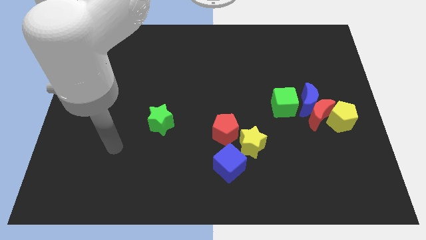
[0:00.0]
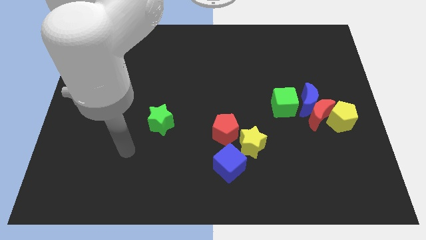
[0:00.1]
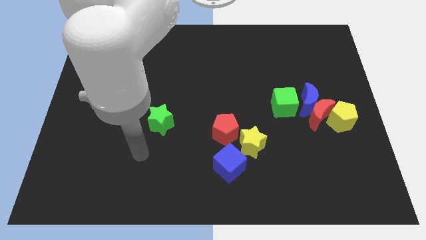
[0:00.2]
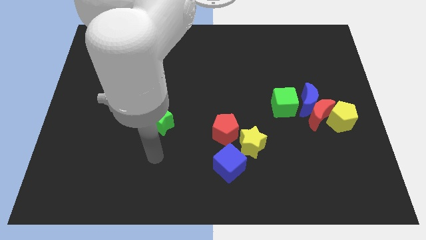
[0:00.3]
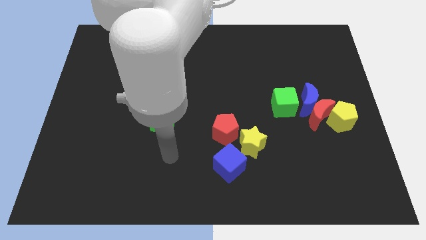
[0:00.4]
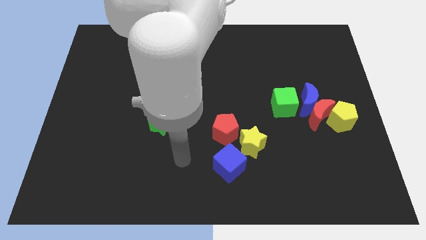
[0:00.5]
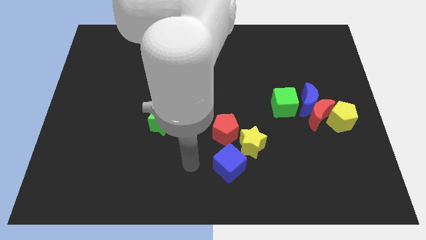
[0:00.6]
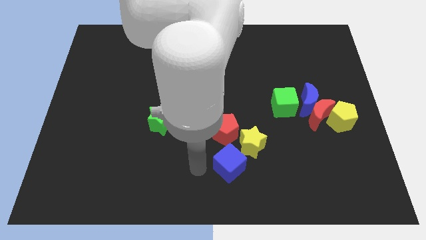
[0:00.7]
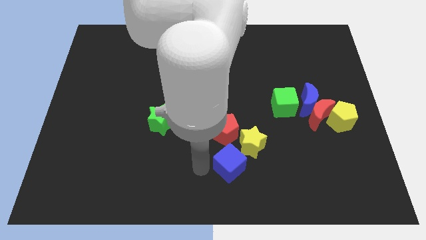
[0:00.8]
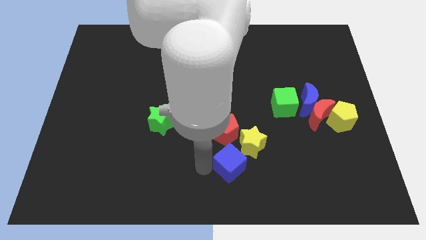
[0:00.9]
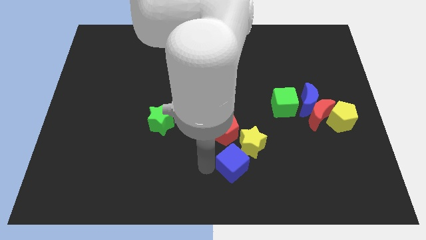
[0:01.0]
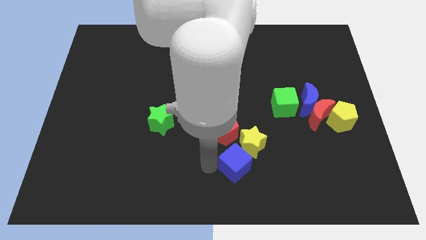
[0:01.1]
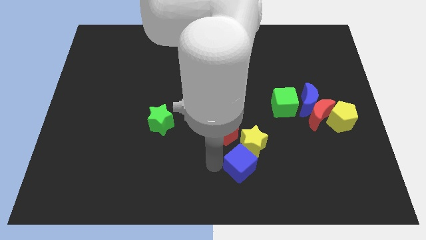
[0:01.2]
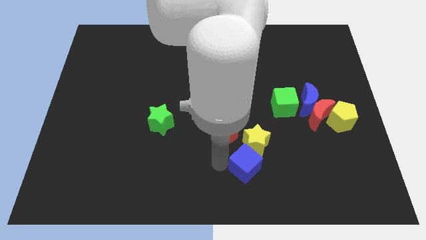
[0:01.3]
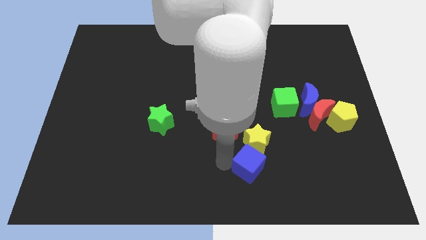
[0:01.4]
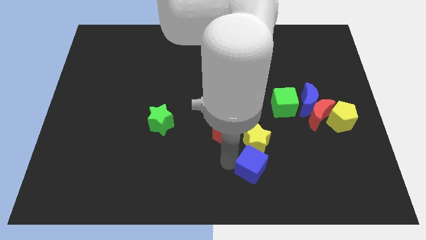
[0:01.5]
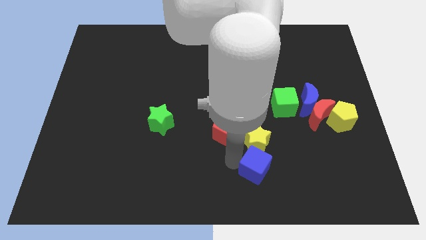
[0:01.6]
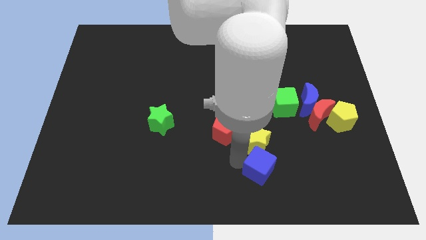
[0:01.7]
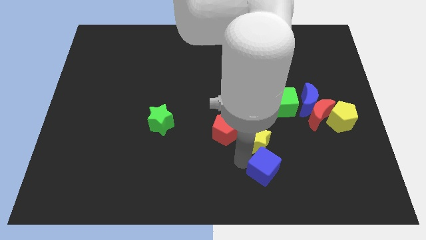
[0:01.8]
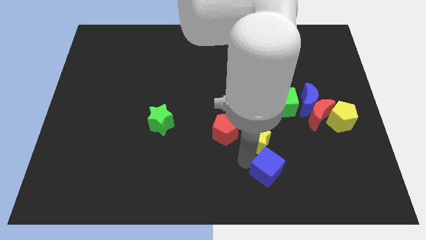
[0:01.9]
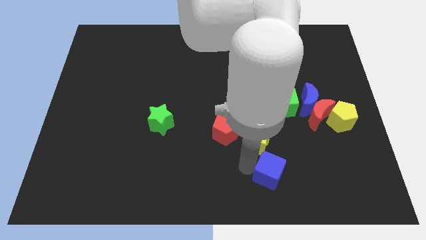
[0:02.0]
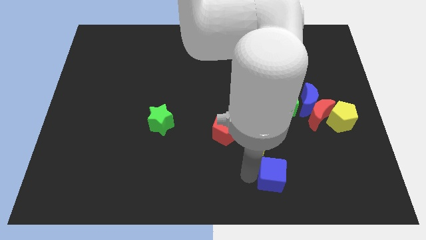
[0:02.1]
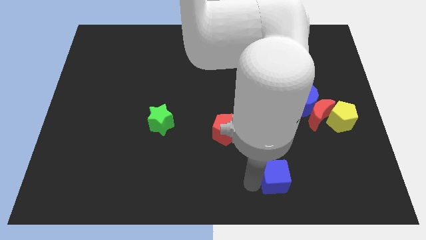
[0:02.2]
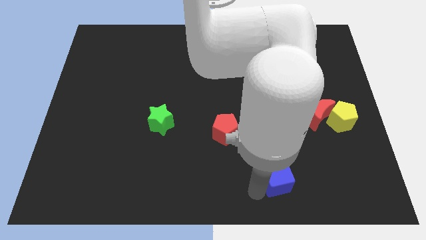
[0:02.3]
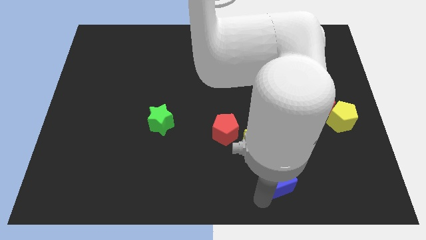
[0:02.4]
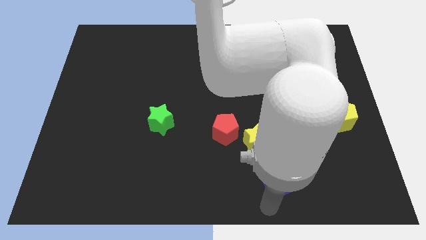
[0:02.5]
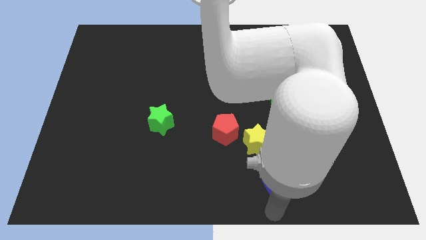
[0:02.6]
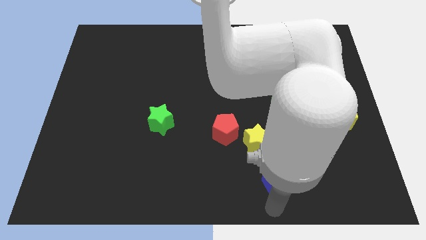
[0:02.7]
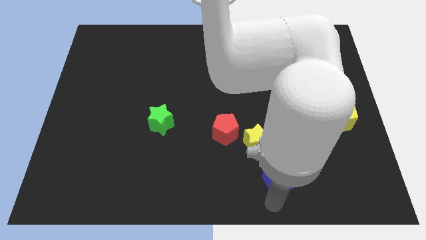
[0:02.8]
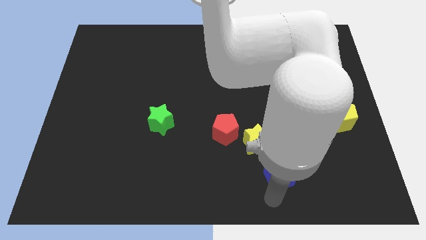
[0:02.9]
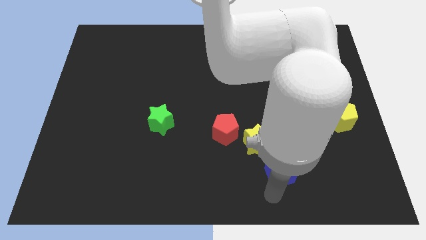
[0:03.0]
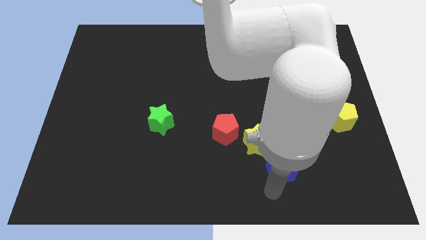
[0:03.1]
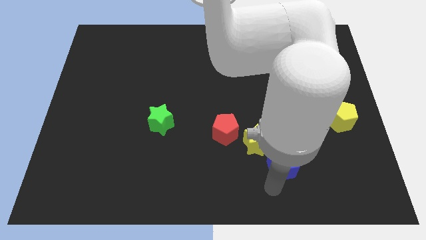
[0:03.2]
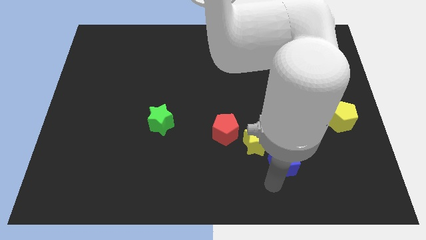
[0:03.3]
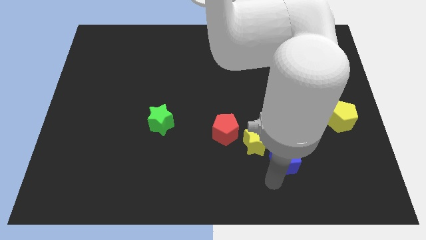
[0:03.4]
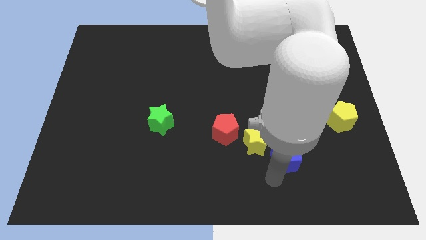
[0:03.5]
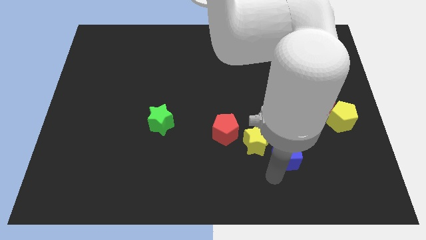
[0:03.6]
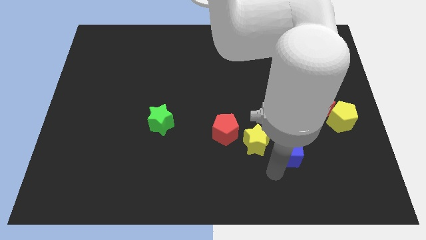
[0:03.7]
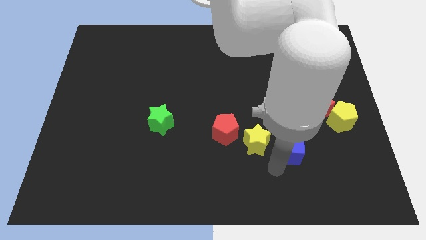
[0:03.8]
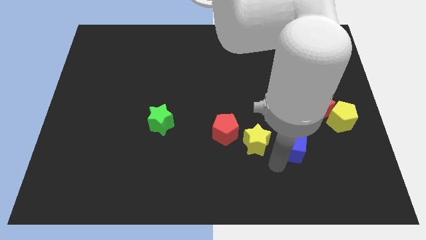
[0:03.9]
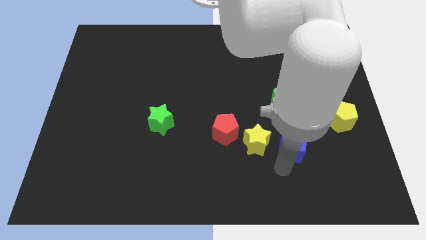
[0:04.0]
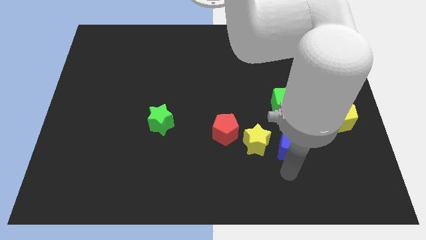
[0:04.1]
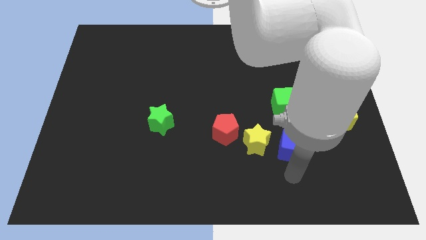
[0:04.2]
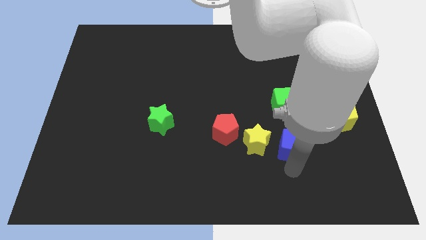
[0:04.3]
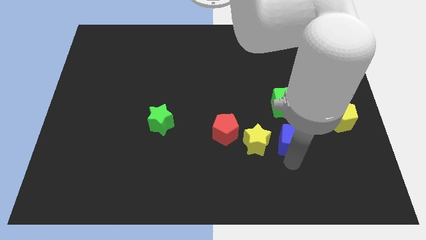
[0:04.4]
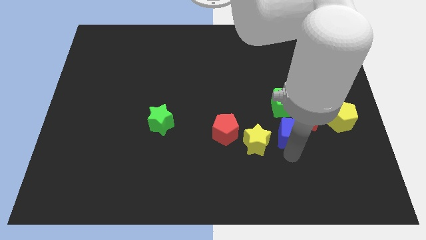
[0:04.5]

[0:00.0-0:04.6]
move the blue cube to the bottom left of the blue moon

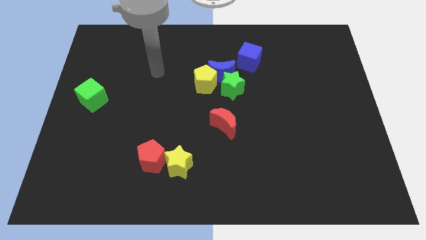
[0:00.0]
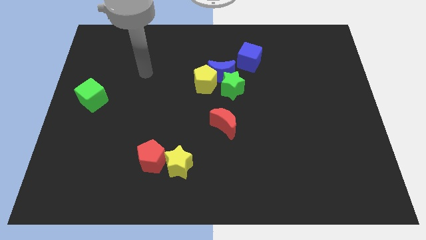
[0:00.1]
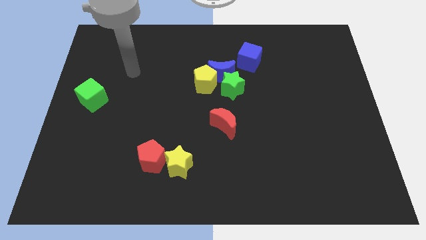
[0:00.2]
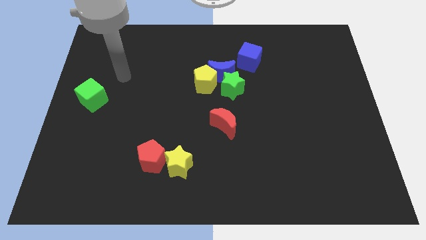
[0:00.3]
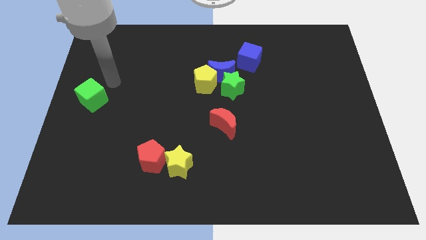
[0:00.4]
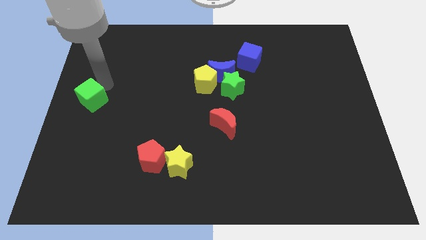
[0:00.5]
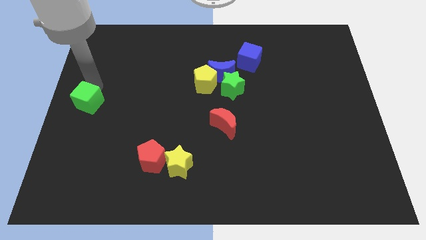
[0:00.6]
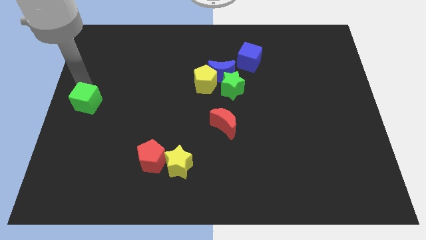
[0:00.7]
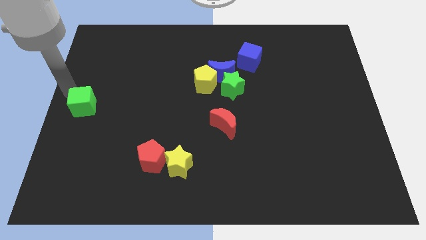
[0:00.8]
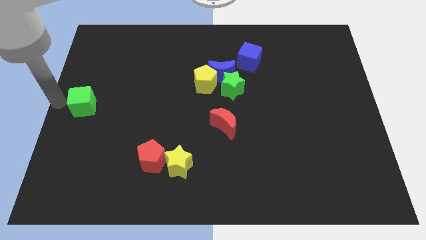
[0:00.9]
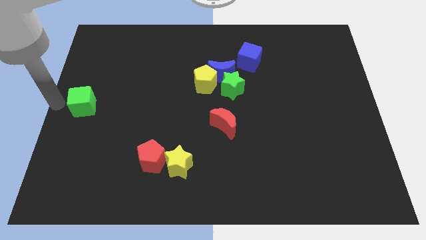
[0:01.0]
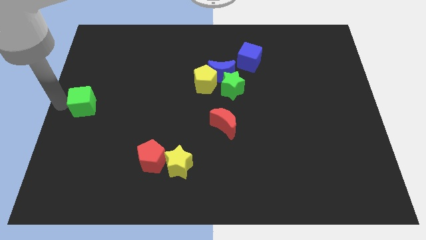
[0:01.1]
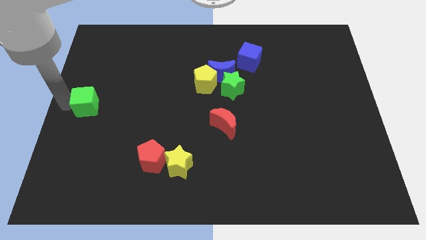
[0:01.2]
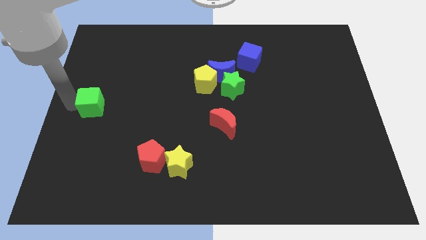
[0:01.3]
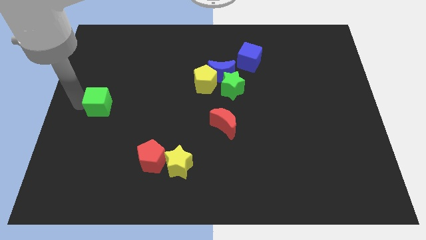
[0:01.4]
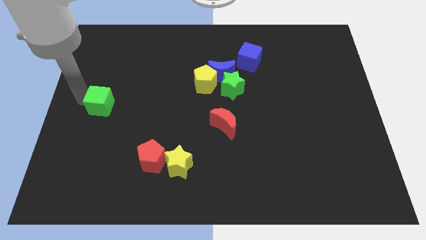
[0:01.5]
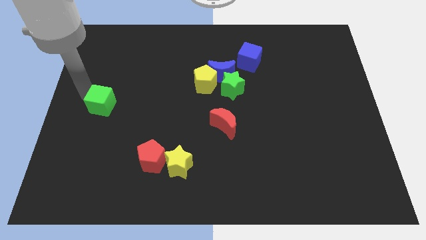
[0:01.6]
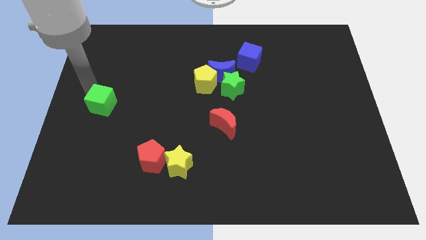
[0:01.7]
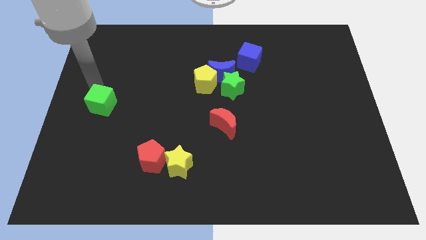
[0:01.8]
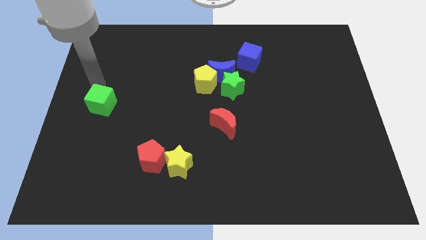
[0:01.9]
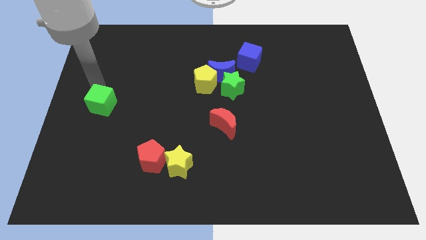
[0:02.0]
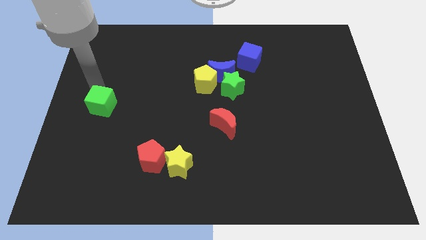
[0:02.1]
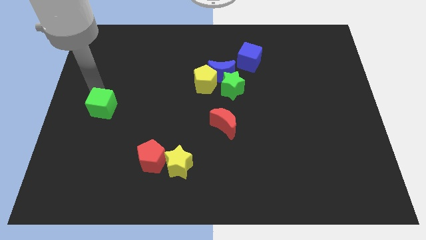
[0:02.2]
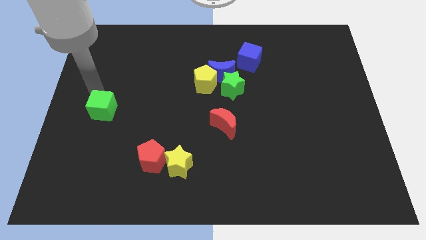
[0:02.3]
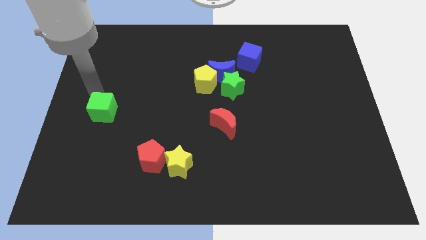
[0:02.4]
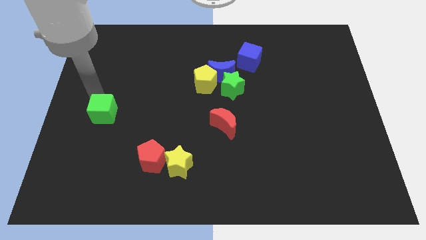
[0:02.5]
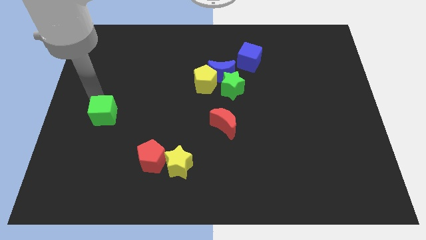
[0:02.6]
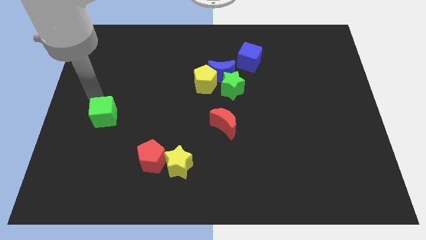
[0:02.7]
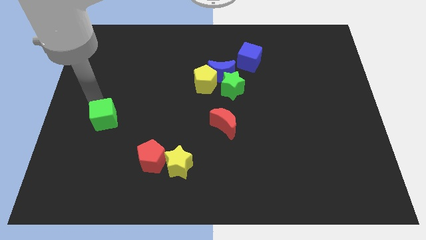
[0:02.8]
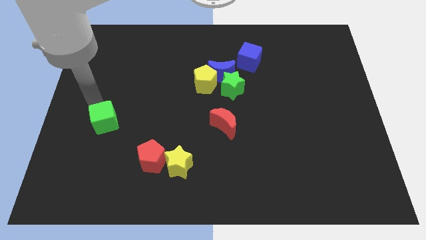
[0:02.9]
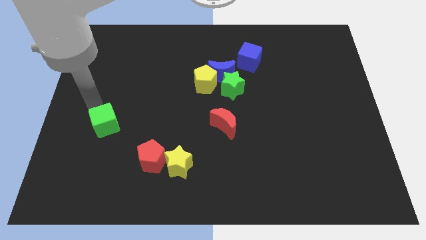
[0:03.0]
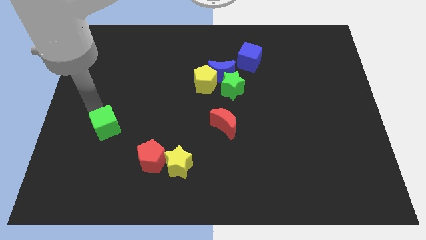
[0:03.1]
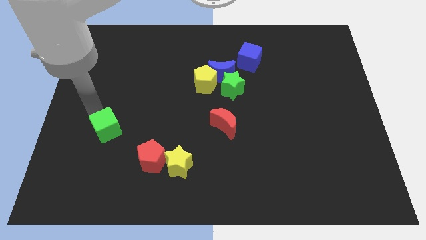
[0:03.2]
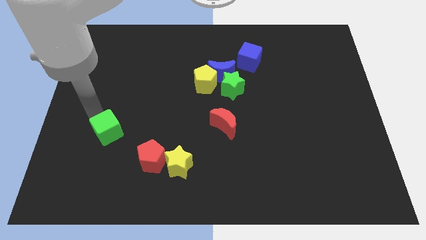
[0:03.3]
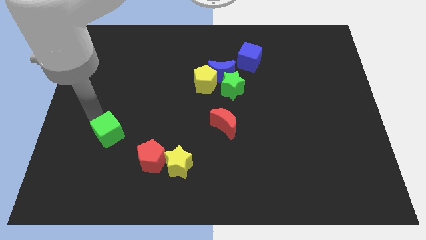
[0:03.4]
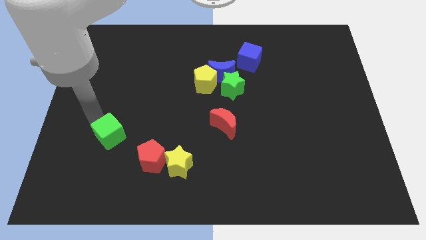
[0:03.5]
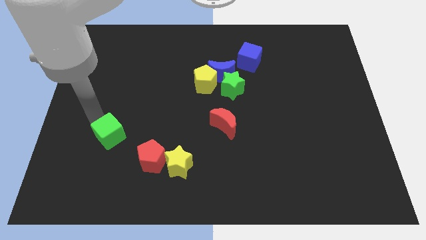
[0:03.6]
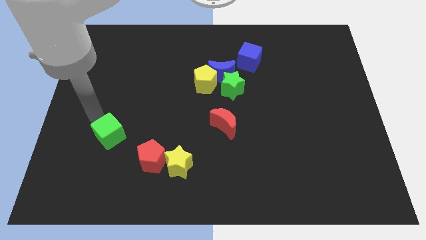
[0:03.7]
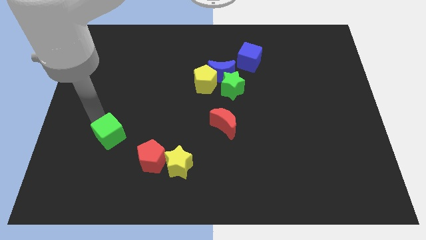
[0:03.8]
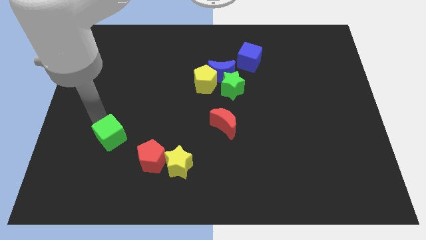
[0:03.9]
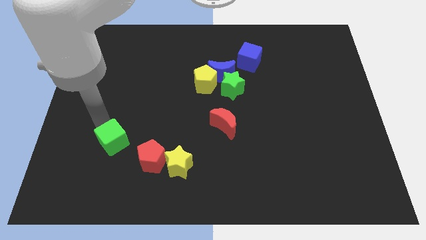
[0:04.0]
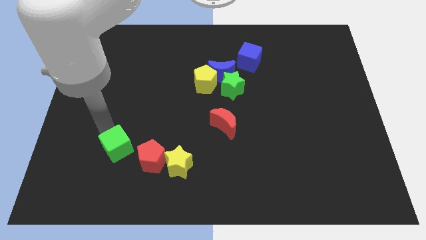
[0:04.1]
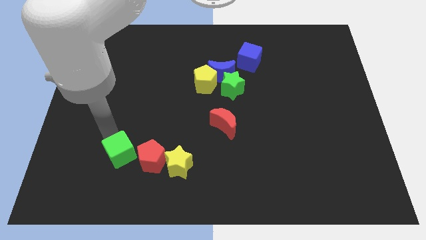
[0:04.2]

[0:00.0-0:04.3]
push the green cube just left of the yellow star
